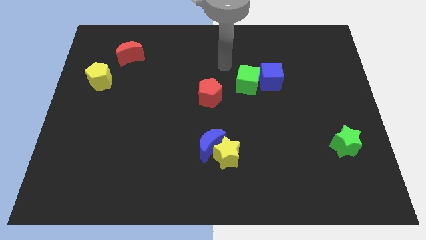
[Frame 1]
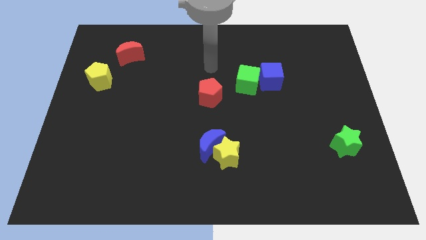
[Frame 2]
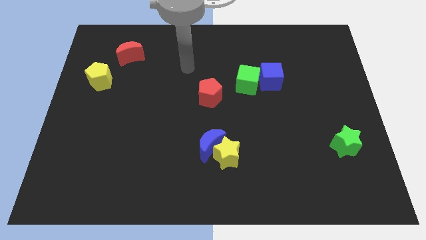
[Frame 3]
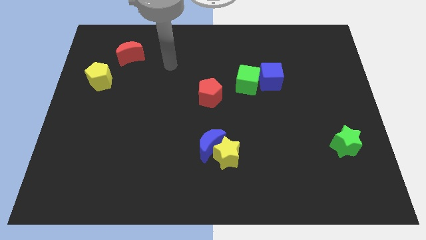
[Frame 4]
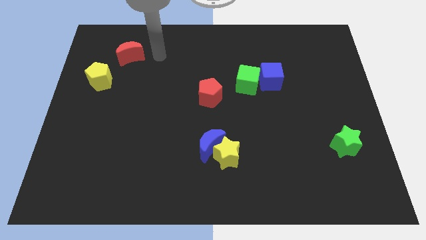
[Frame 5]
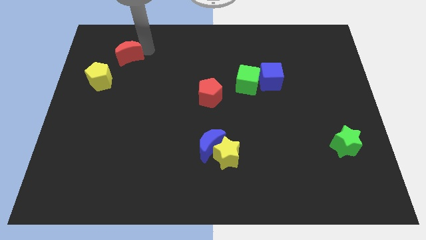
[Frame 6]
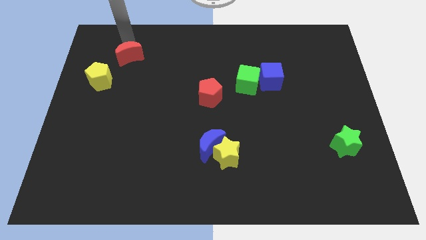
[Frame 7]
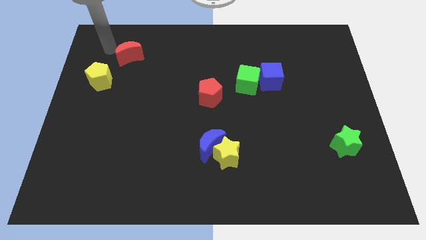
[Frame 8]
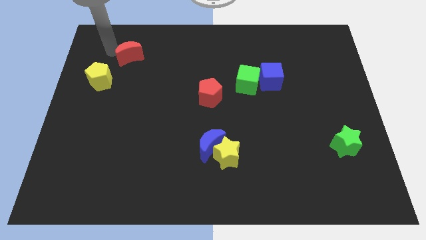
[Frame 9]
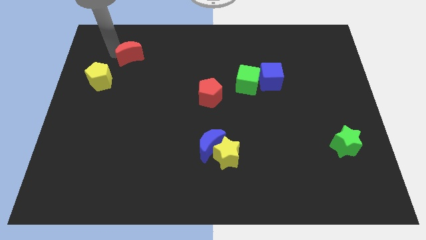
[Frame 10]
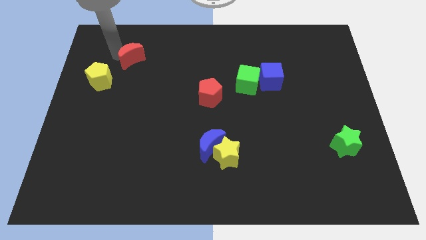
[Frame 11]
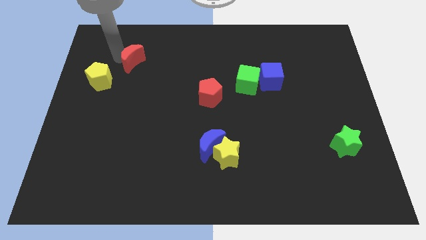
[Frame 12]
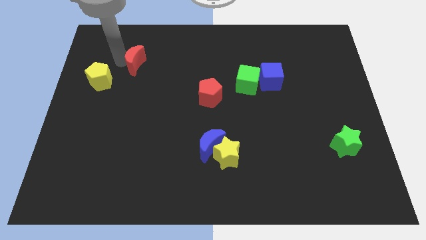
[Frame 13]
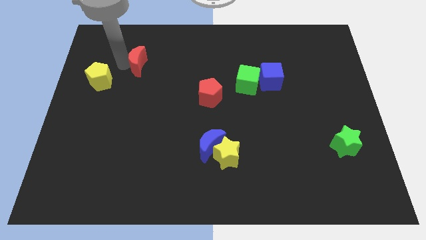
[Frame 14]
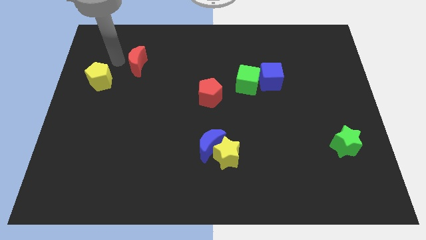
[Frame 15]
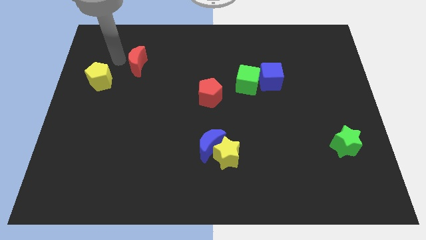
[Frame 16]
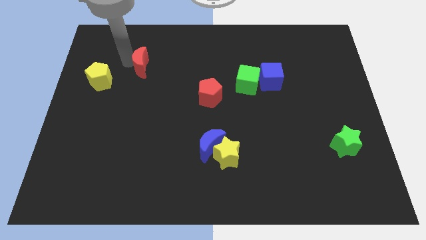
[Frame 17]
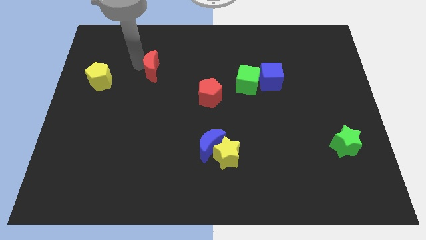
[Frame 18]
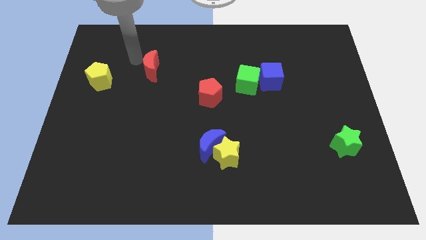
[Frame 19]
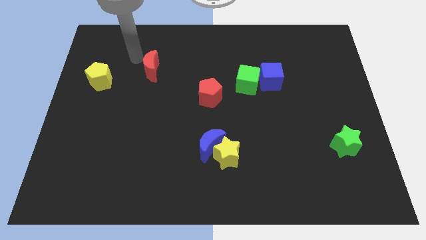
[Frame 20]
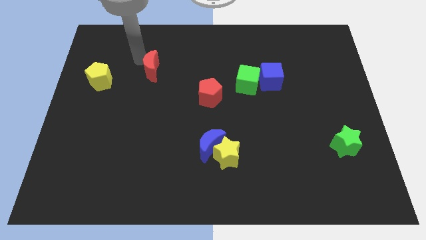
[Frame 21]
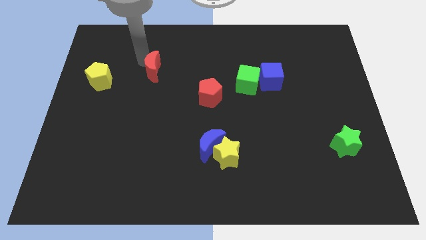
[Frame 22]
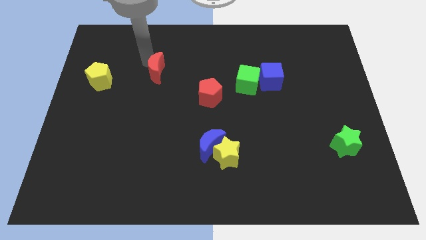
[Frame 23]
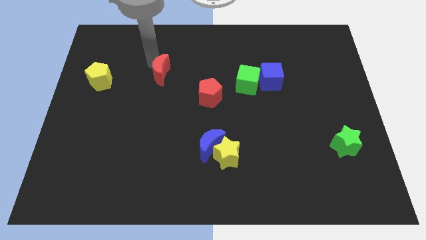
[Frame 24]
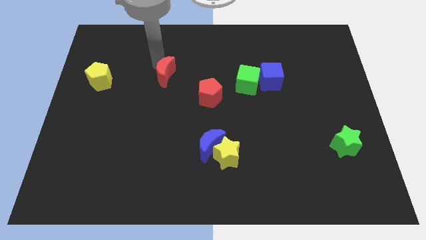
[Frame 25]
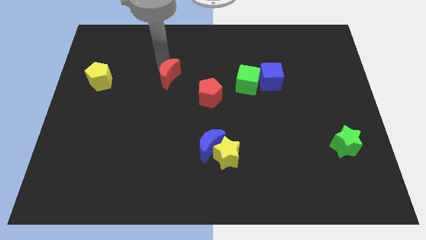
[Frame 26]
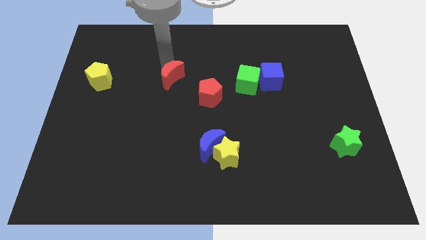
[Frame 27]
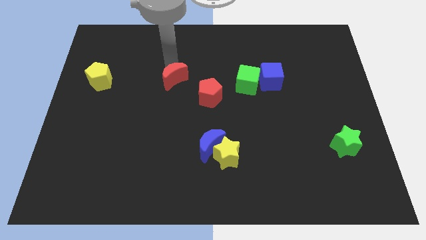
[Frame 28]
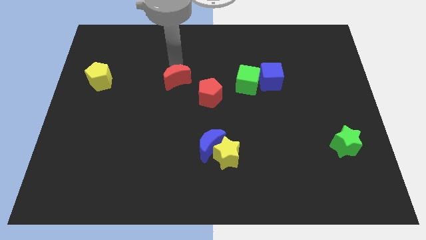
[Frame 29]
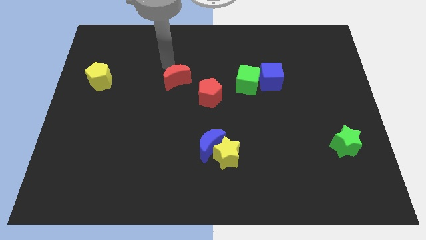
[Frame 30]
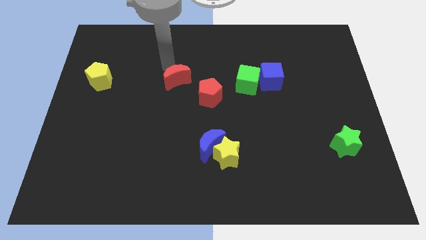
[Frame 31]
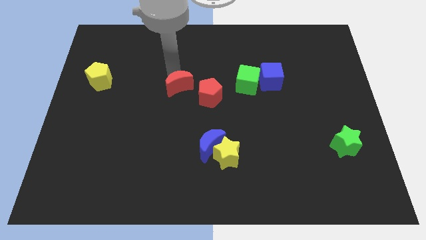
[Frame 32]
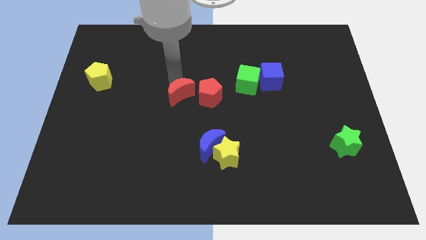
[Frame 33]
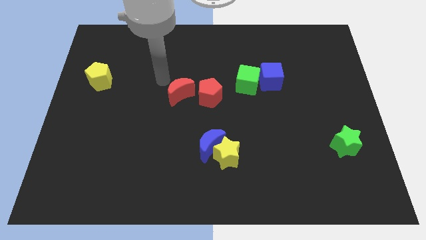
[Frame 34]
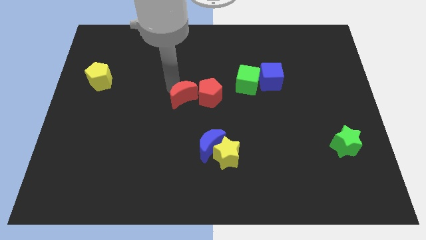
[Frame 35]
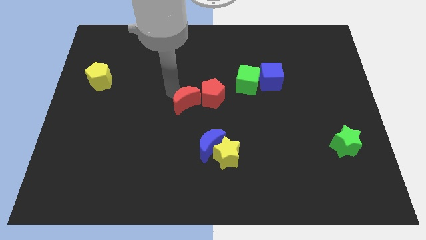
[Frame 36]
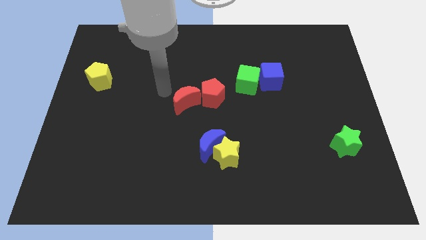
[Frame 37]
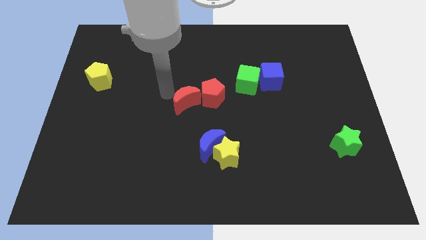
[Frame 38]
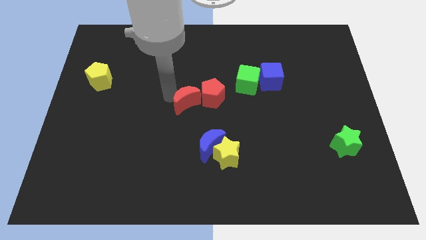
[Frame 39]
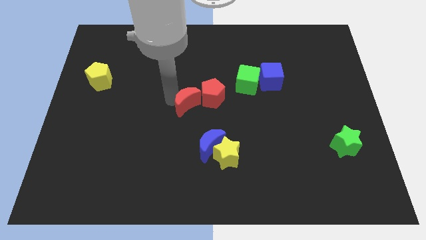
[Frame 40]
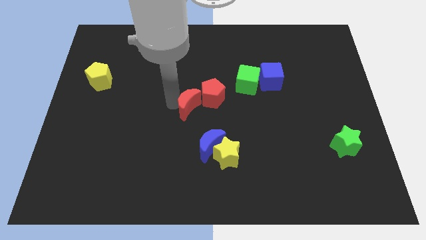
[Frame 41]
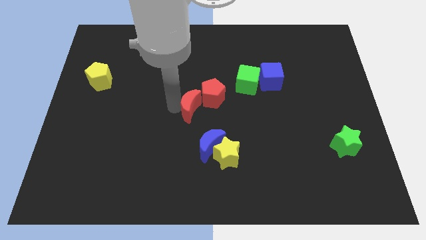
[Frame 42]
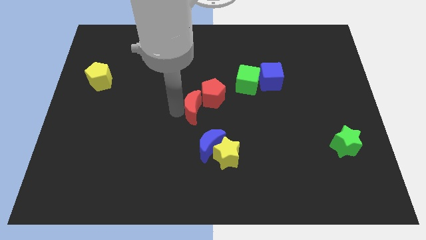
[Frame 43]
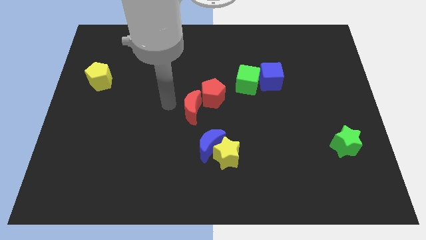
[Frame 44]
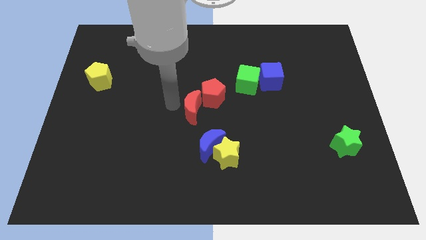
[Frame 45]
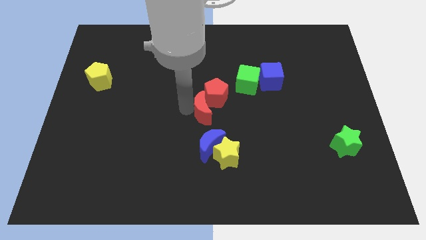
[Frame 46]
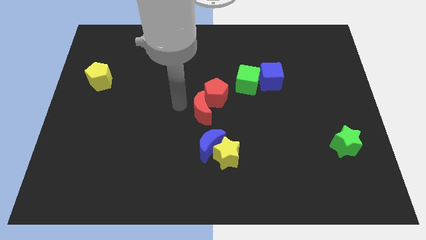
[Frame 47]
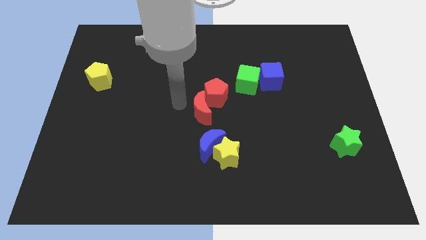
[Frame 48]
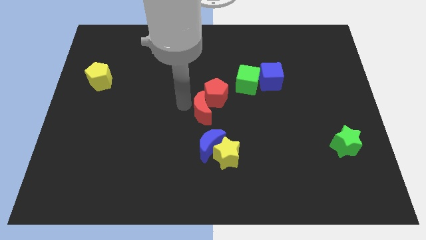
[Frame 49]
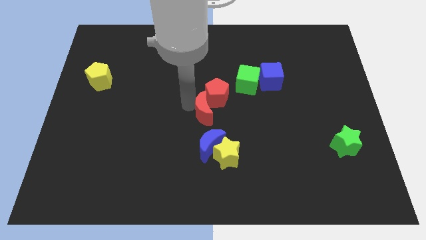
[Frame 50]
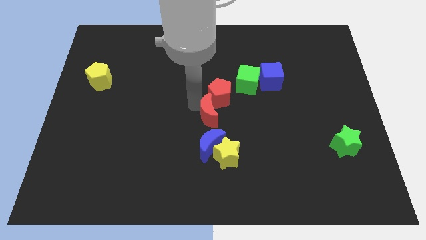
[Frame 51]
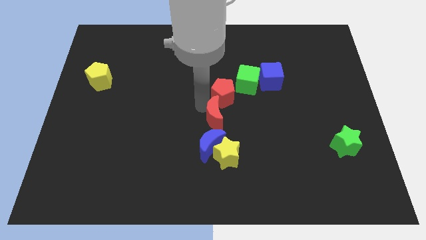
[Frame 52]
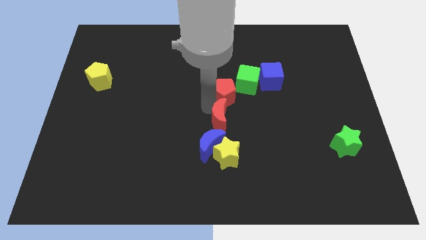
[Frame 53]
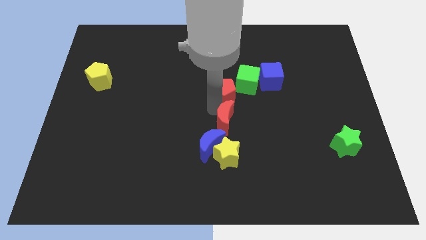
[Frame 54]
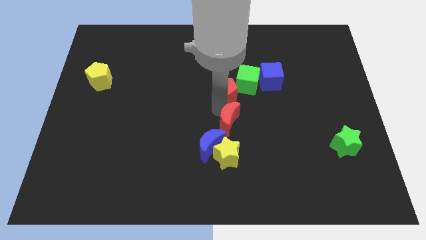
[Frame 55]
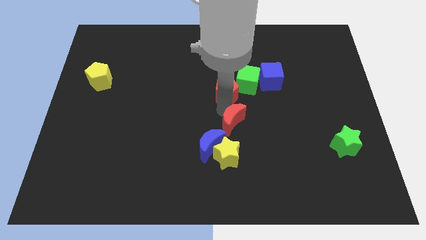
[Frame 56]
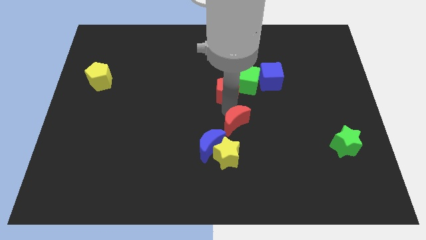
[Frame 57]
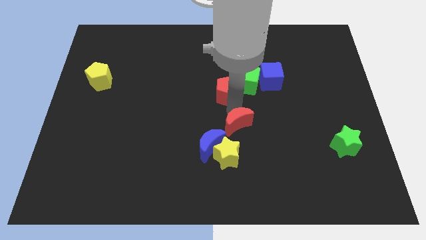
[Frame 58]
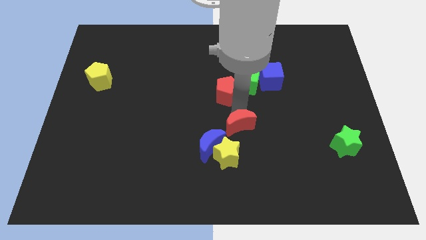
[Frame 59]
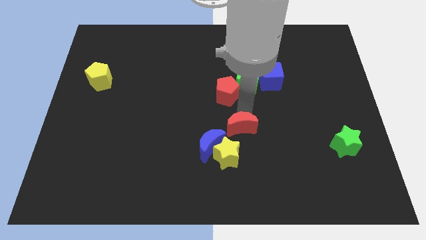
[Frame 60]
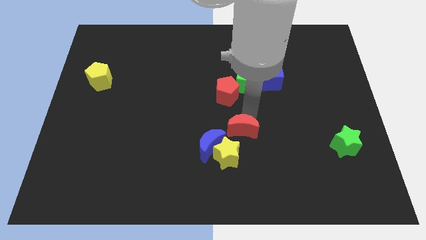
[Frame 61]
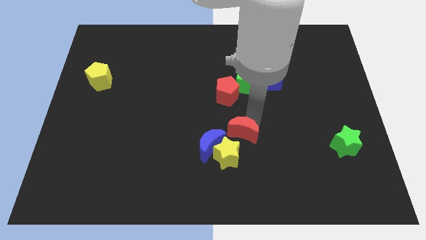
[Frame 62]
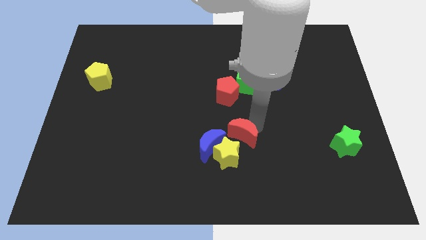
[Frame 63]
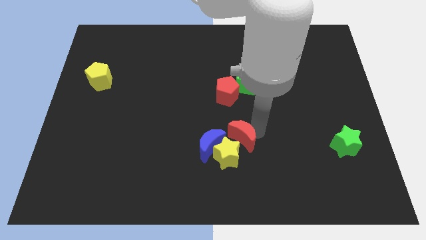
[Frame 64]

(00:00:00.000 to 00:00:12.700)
push the red moon to the yellow star

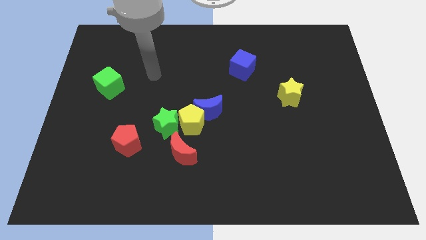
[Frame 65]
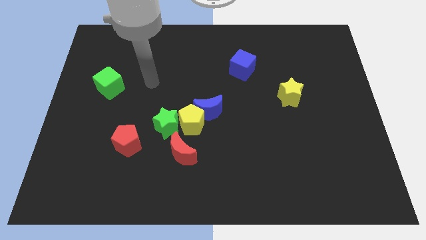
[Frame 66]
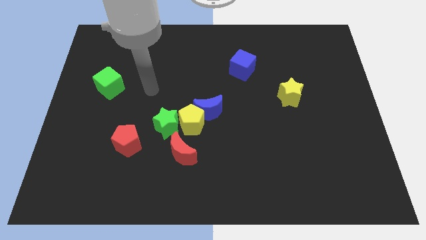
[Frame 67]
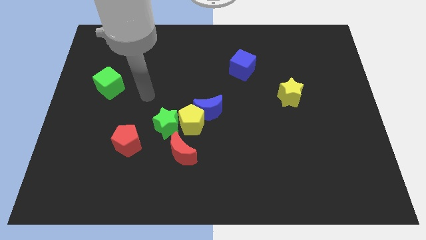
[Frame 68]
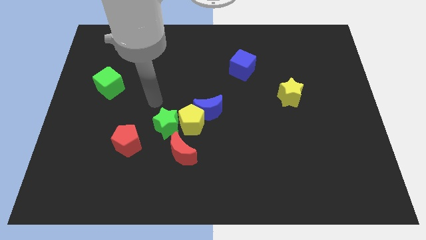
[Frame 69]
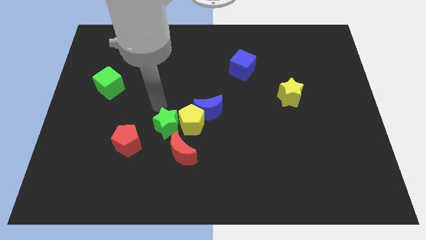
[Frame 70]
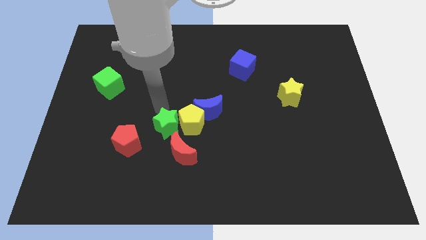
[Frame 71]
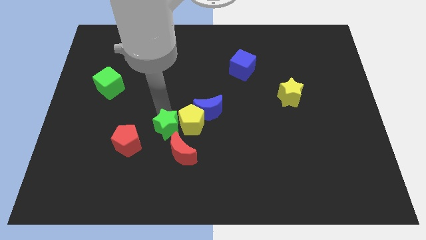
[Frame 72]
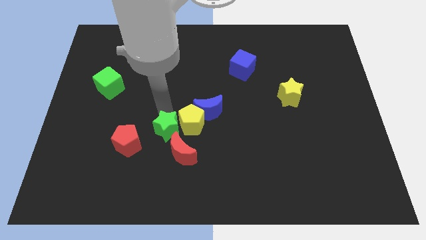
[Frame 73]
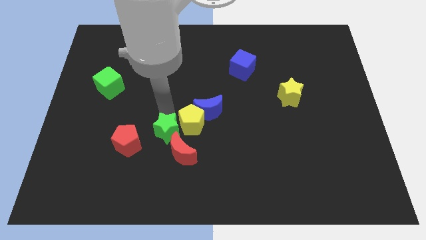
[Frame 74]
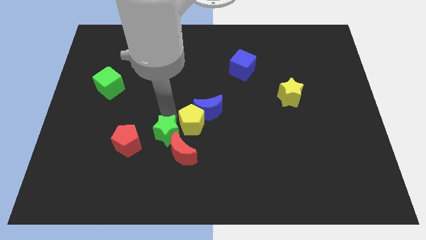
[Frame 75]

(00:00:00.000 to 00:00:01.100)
move the green star to the red moon
